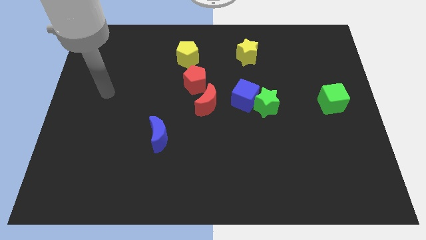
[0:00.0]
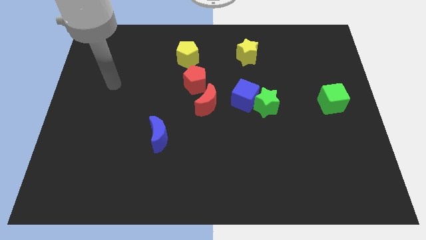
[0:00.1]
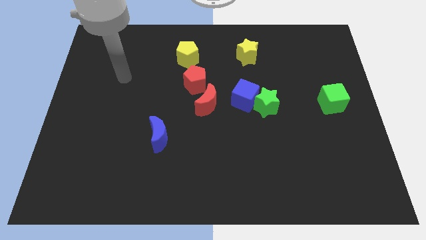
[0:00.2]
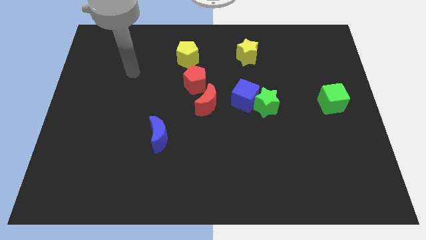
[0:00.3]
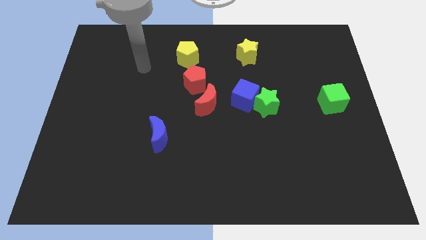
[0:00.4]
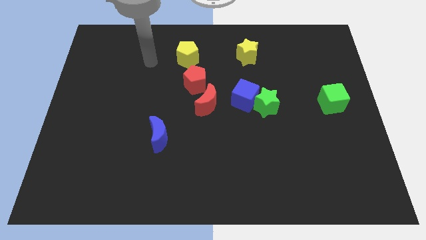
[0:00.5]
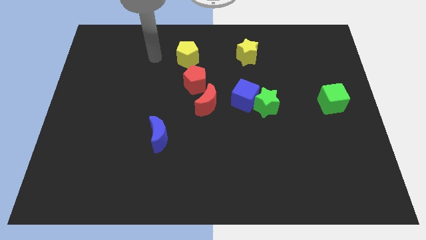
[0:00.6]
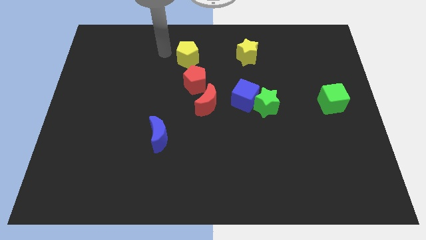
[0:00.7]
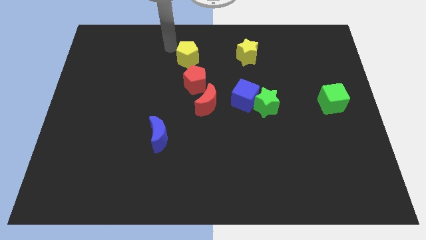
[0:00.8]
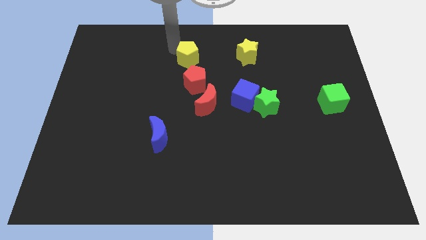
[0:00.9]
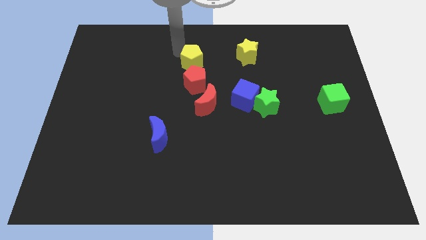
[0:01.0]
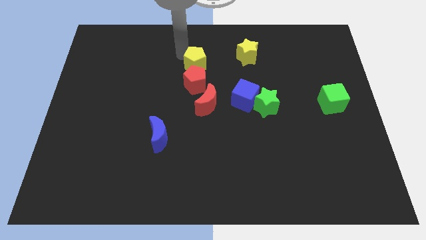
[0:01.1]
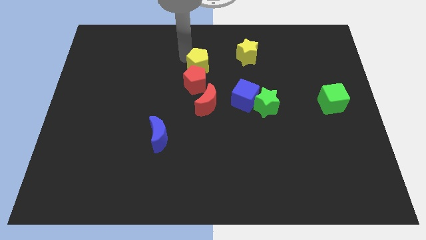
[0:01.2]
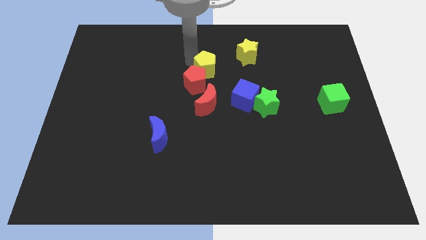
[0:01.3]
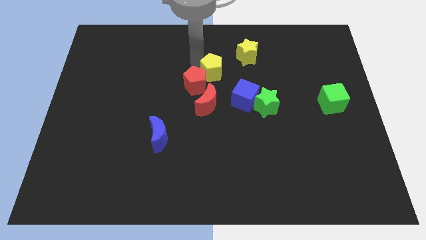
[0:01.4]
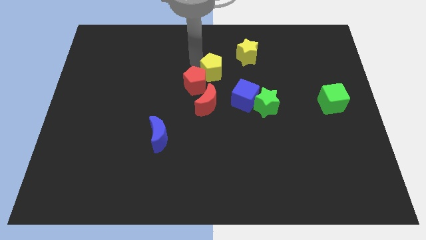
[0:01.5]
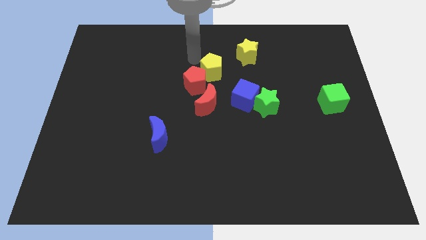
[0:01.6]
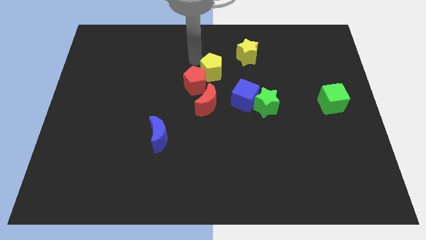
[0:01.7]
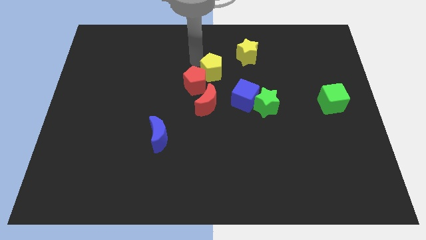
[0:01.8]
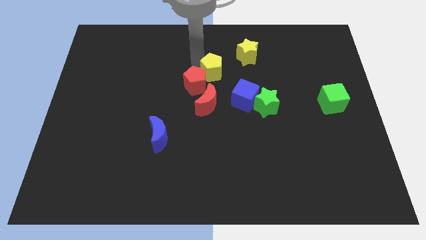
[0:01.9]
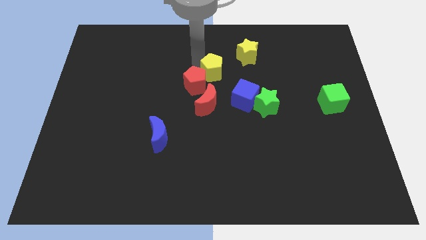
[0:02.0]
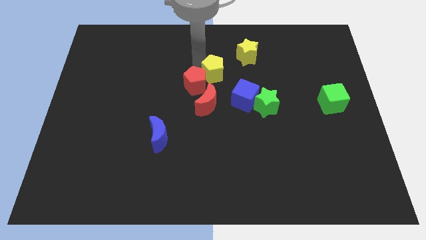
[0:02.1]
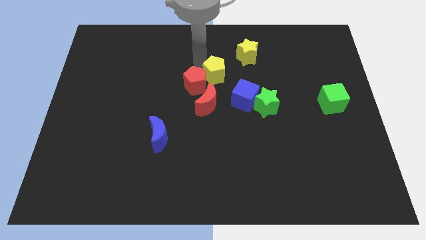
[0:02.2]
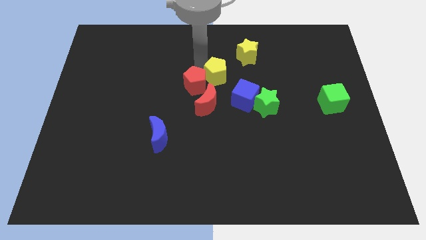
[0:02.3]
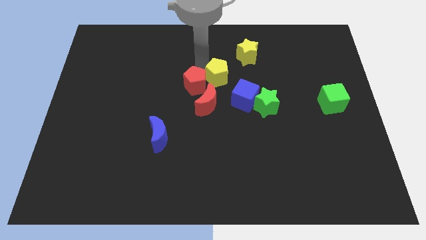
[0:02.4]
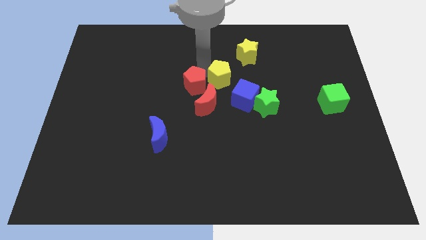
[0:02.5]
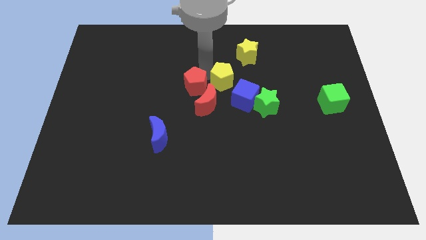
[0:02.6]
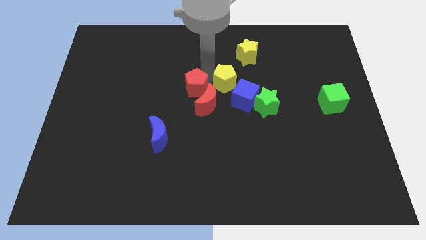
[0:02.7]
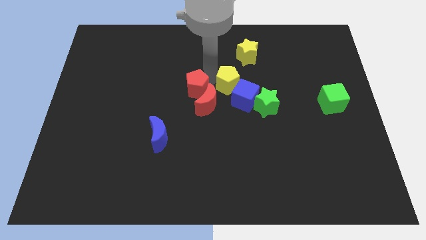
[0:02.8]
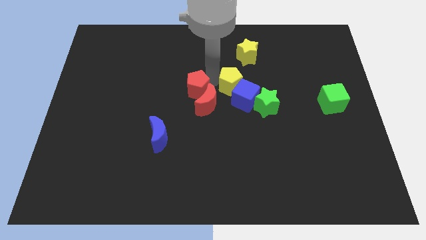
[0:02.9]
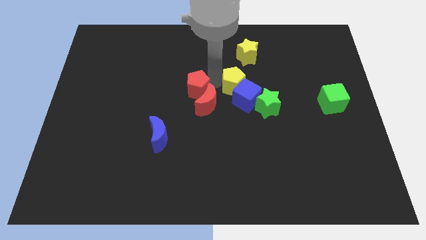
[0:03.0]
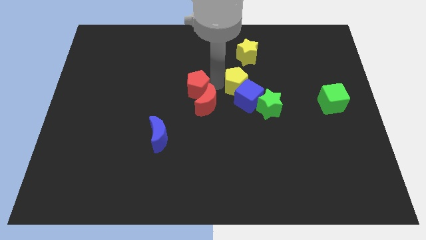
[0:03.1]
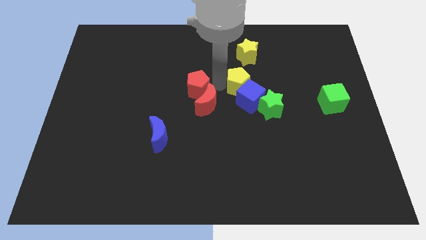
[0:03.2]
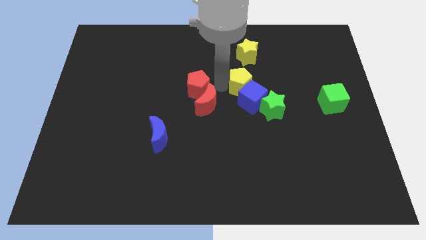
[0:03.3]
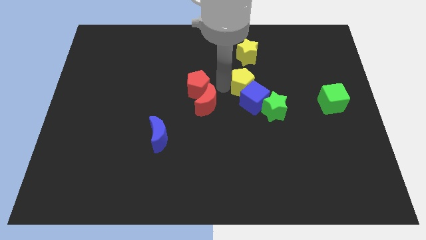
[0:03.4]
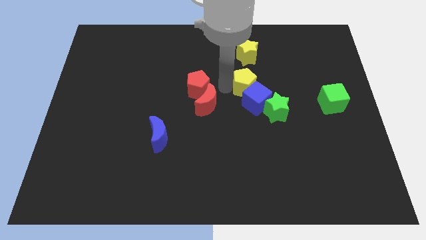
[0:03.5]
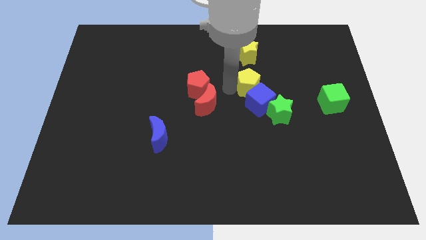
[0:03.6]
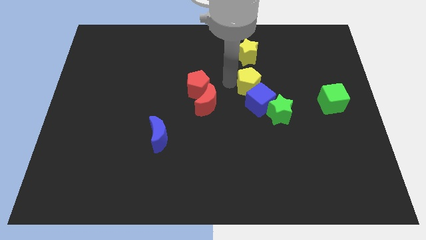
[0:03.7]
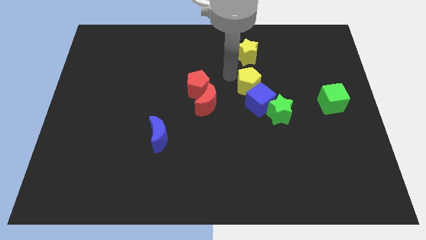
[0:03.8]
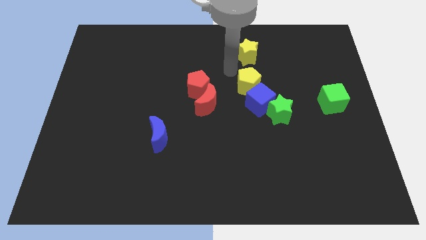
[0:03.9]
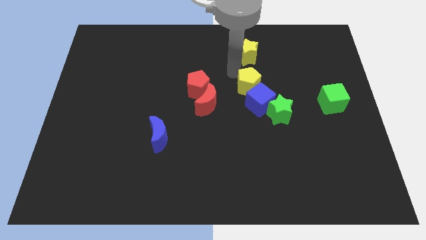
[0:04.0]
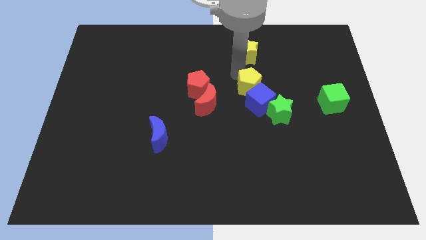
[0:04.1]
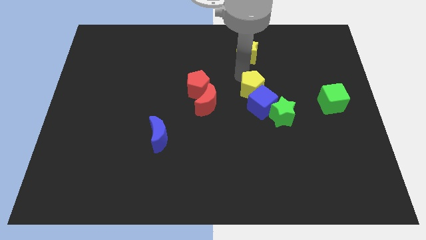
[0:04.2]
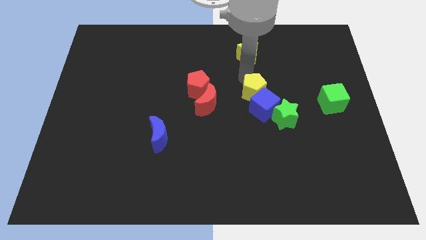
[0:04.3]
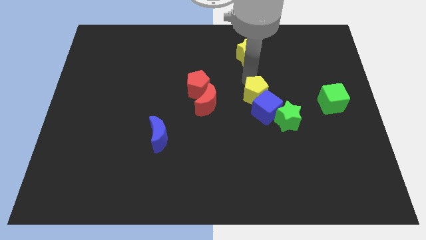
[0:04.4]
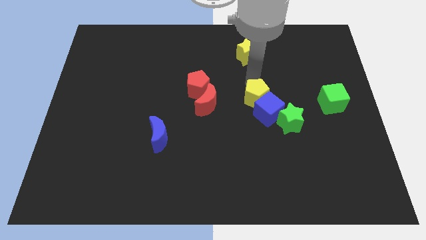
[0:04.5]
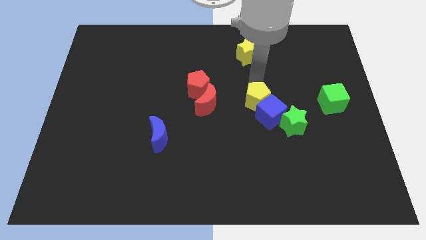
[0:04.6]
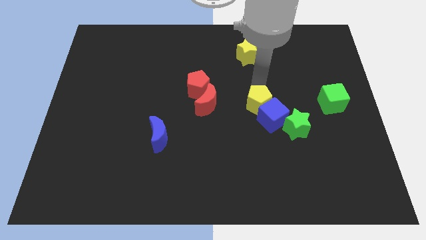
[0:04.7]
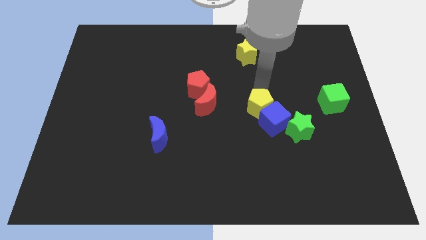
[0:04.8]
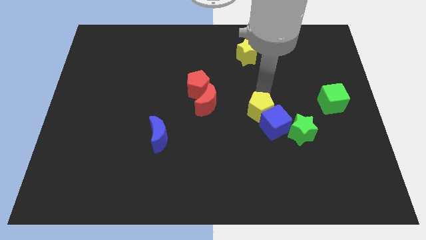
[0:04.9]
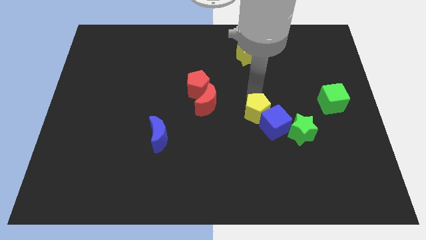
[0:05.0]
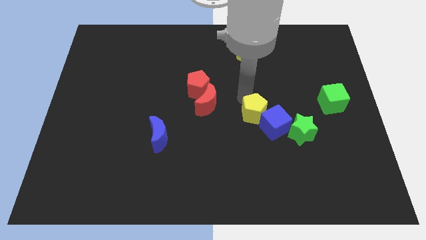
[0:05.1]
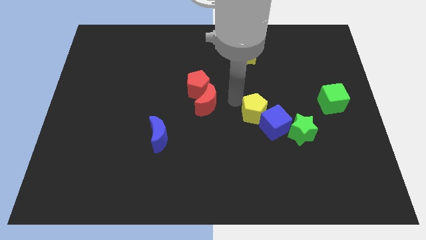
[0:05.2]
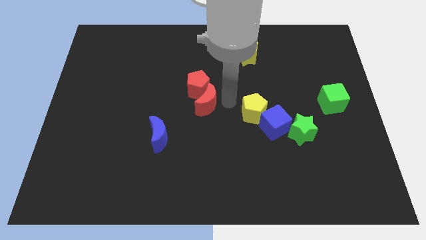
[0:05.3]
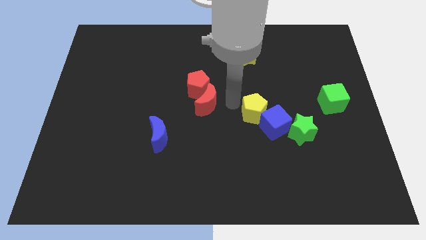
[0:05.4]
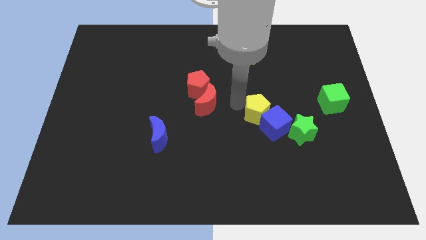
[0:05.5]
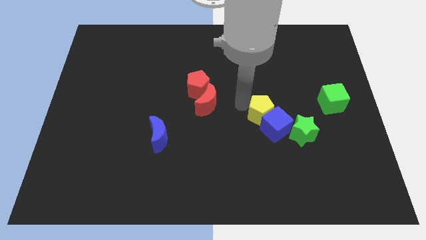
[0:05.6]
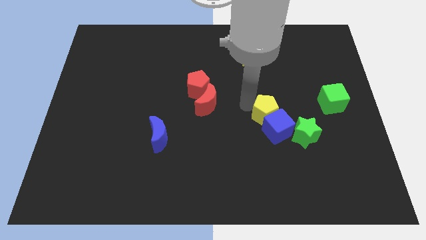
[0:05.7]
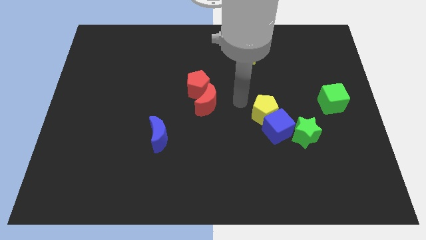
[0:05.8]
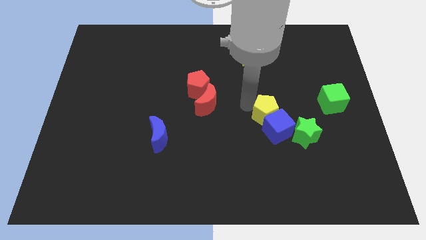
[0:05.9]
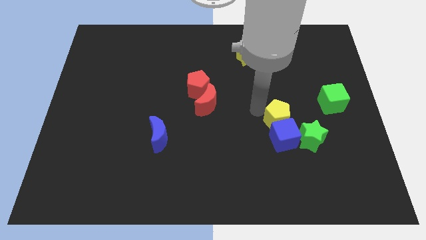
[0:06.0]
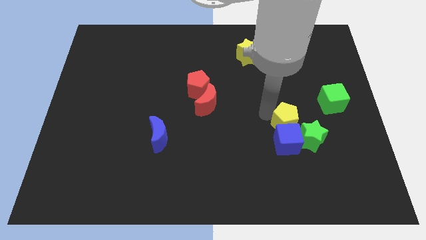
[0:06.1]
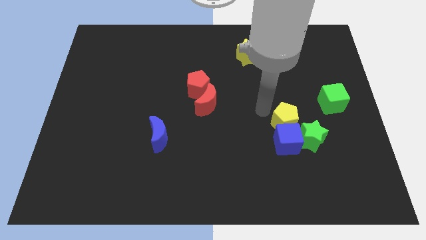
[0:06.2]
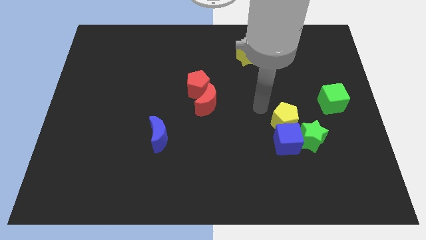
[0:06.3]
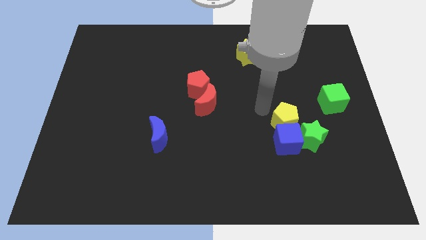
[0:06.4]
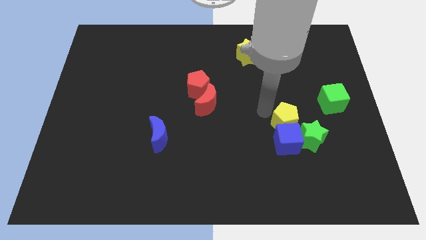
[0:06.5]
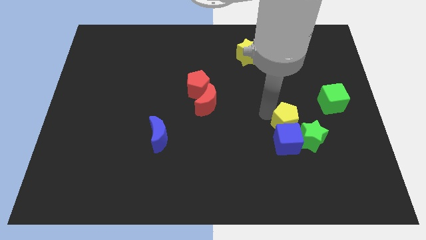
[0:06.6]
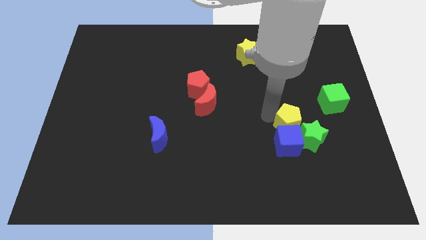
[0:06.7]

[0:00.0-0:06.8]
push the yellow pentagon to the green star

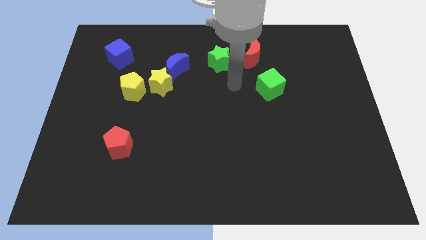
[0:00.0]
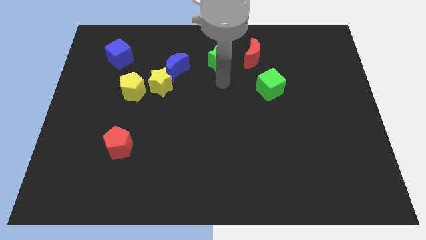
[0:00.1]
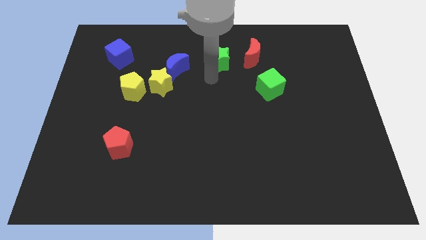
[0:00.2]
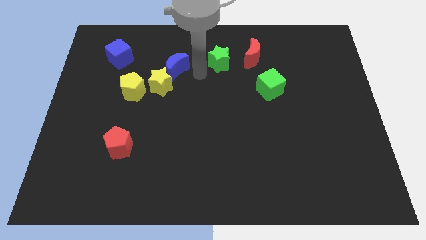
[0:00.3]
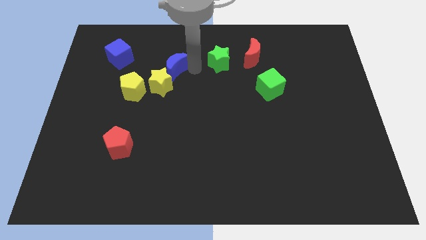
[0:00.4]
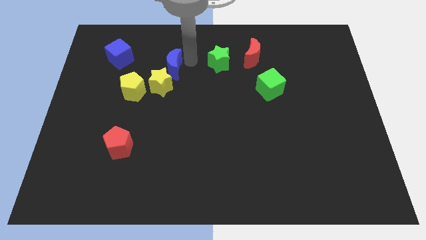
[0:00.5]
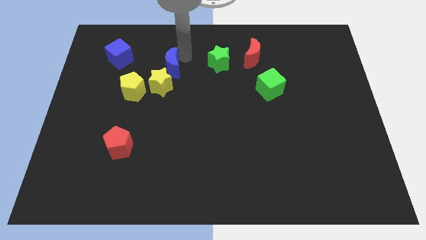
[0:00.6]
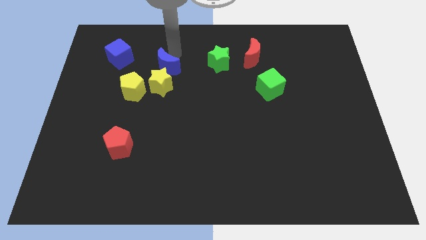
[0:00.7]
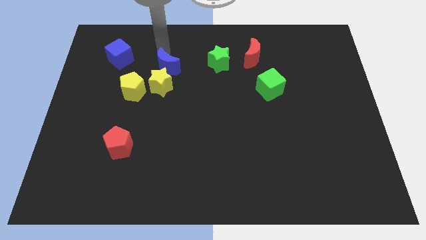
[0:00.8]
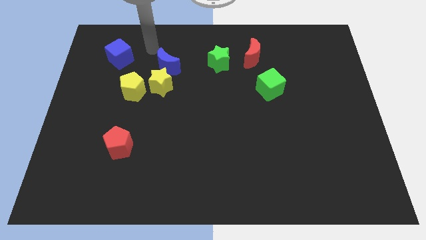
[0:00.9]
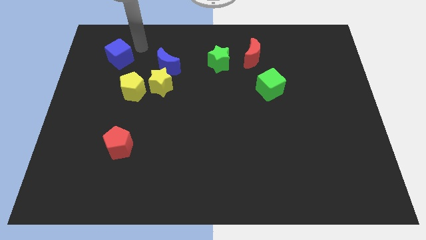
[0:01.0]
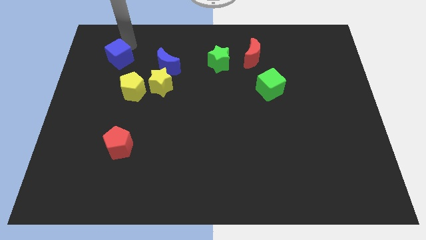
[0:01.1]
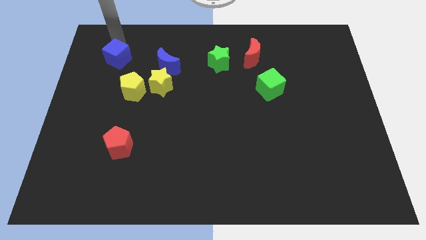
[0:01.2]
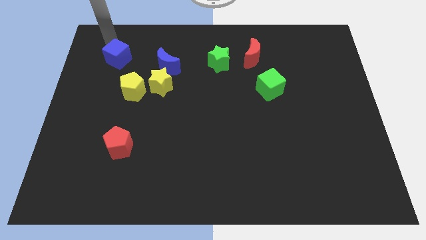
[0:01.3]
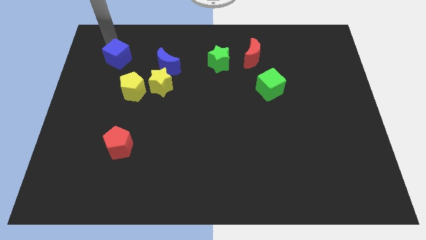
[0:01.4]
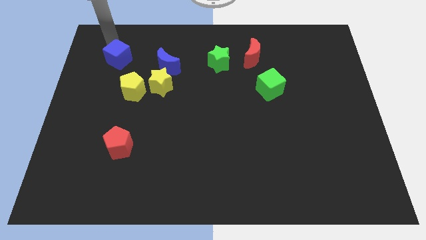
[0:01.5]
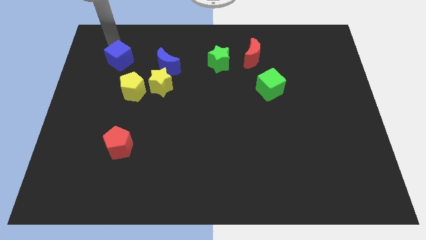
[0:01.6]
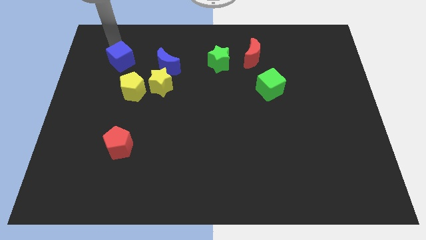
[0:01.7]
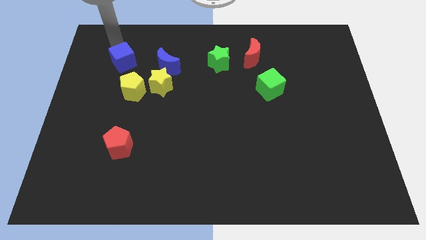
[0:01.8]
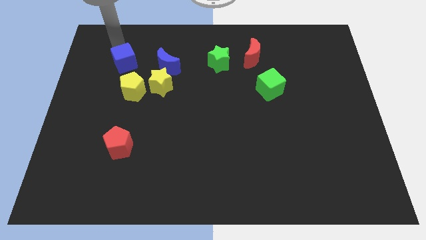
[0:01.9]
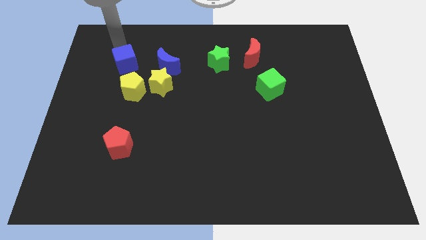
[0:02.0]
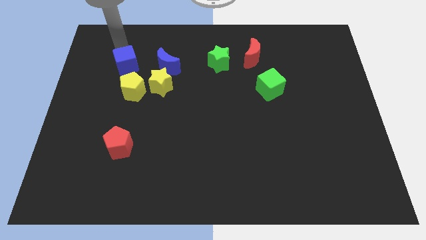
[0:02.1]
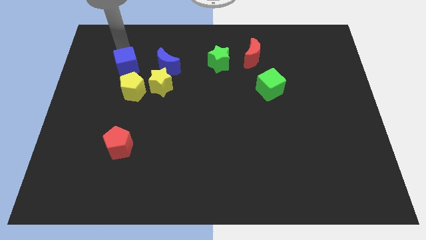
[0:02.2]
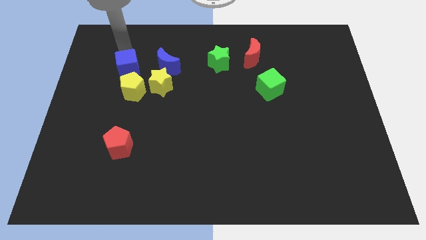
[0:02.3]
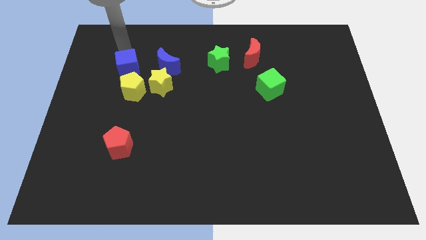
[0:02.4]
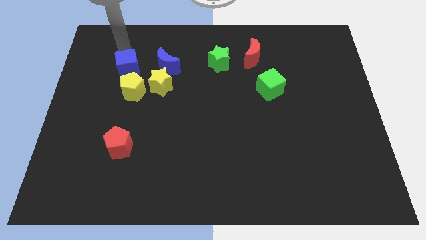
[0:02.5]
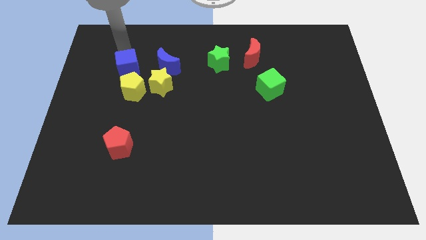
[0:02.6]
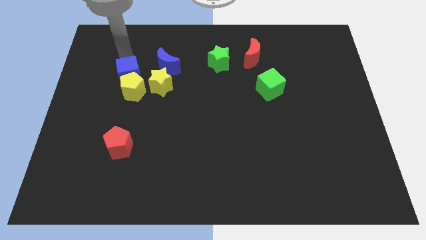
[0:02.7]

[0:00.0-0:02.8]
put the blue cube to the yellow pentagon
